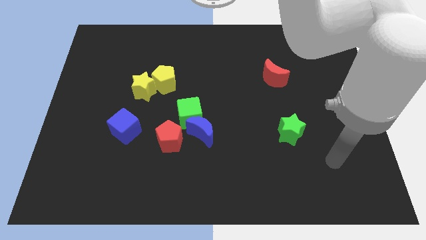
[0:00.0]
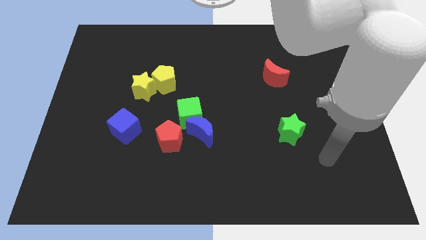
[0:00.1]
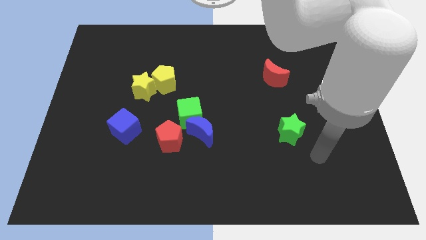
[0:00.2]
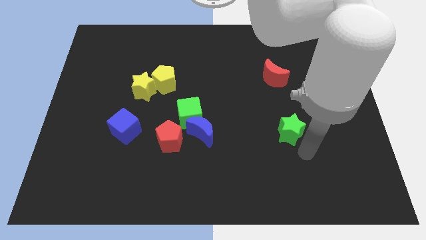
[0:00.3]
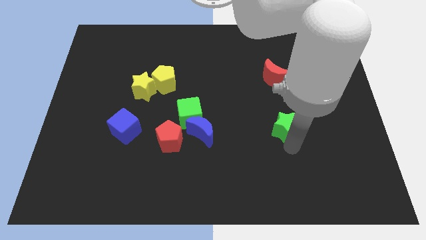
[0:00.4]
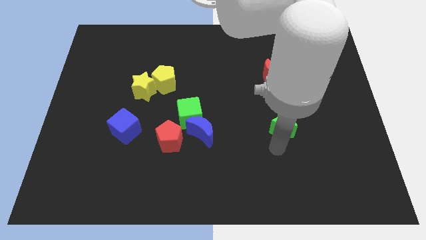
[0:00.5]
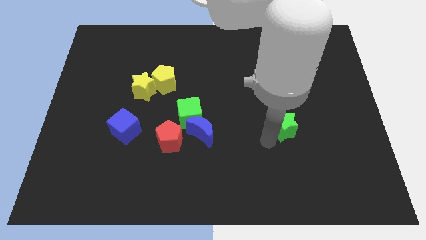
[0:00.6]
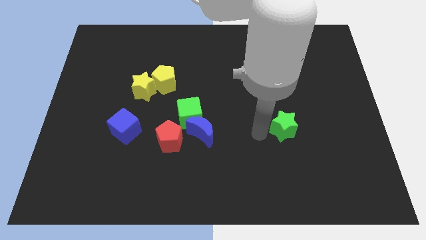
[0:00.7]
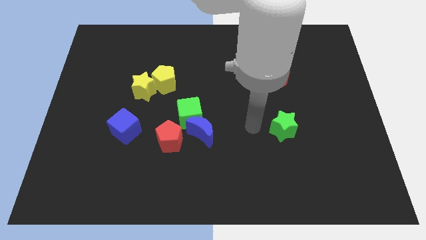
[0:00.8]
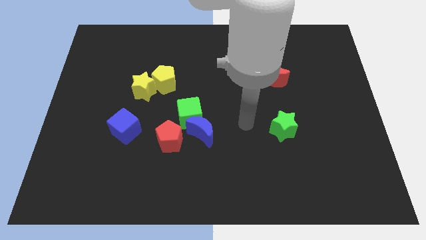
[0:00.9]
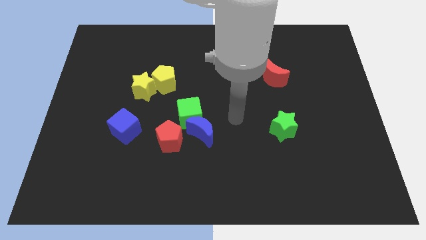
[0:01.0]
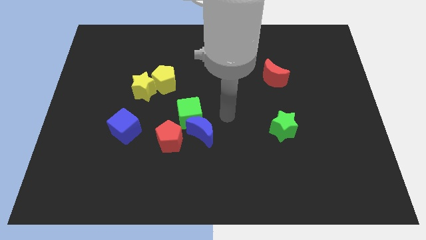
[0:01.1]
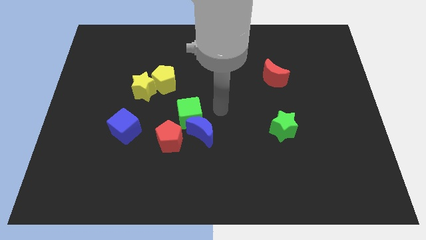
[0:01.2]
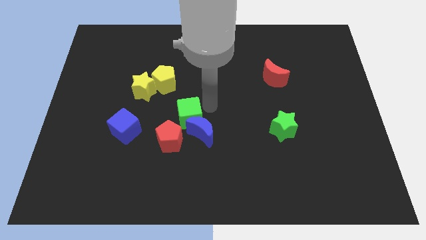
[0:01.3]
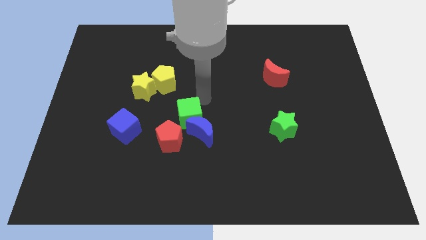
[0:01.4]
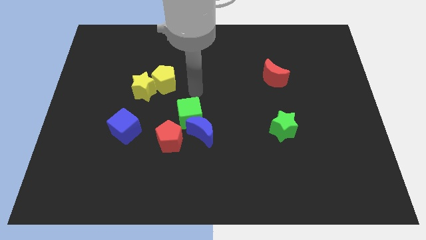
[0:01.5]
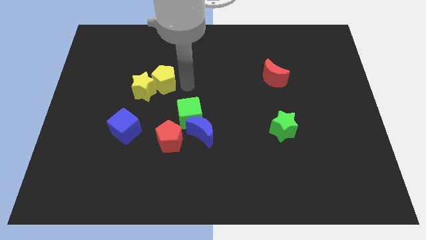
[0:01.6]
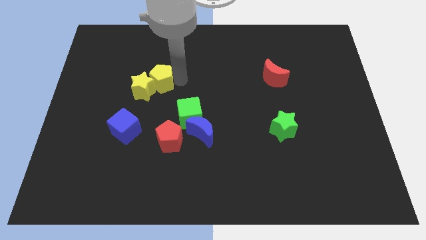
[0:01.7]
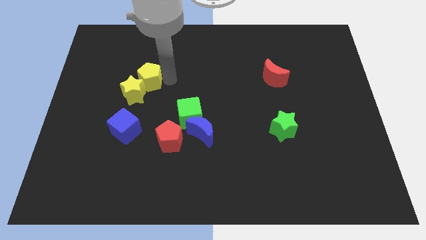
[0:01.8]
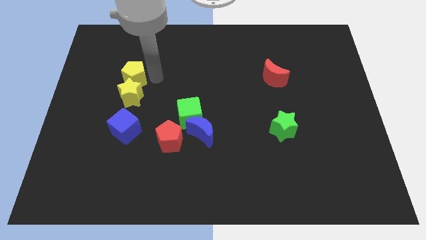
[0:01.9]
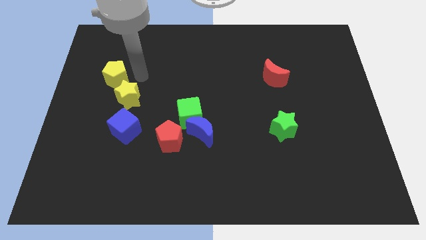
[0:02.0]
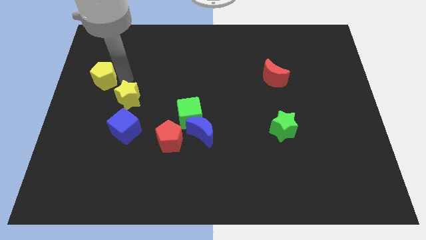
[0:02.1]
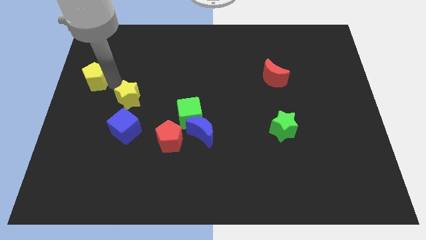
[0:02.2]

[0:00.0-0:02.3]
separate the yellow star from the yellow pentagon

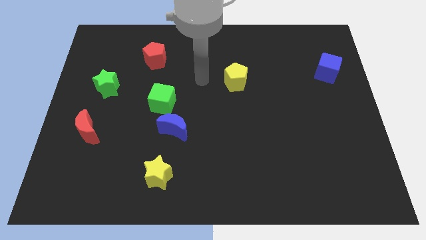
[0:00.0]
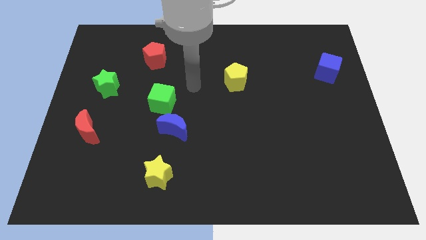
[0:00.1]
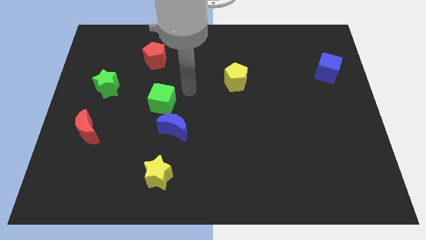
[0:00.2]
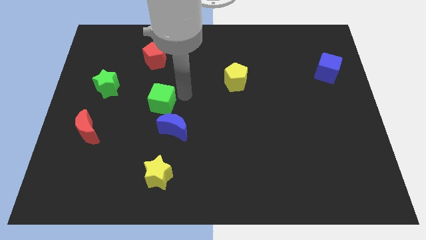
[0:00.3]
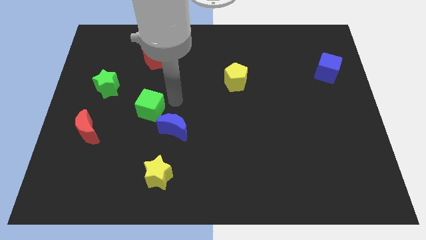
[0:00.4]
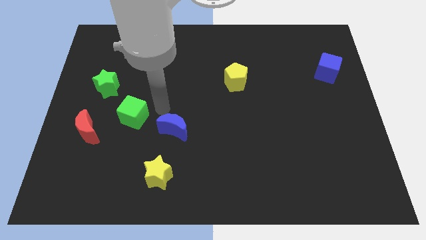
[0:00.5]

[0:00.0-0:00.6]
pull the blue moon apart from the green cube

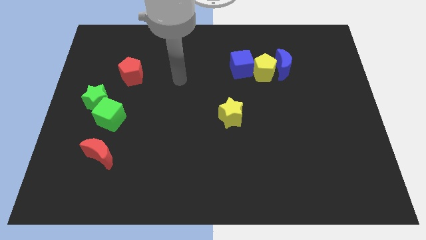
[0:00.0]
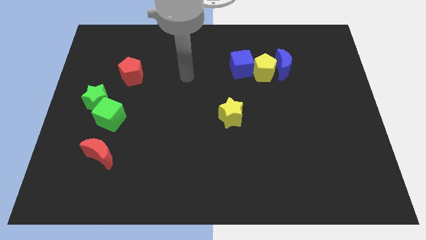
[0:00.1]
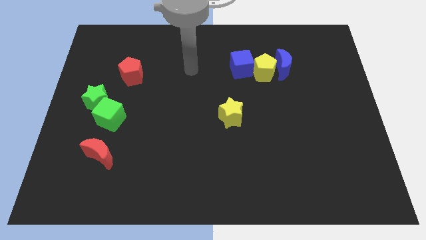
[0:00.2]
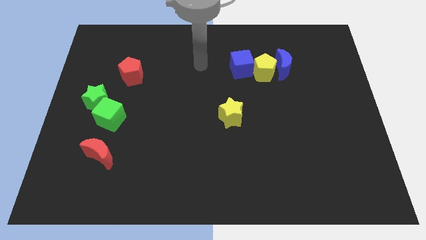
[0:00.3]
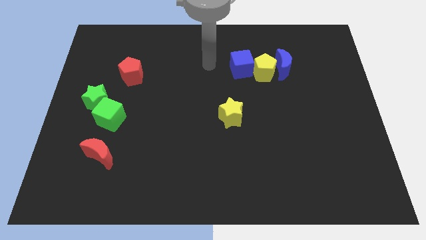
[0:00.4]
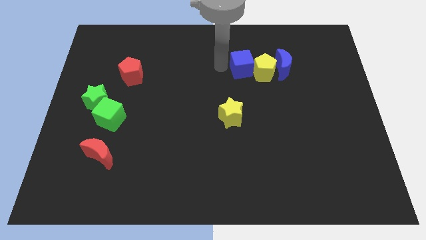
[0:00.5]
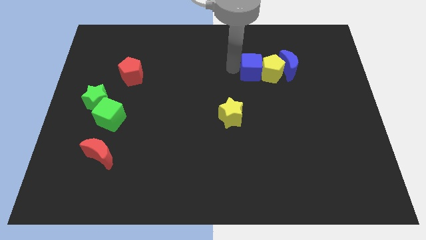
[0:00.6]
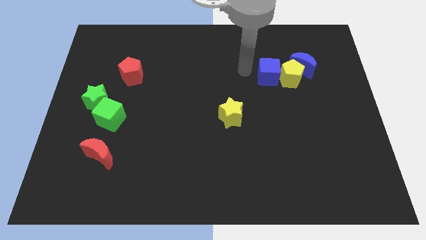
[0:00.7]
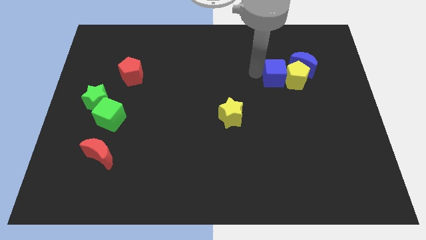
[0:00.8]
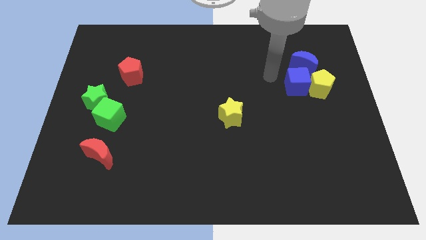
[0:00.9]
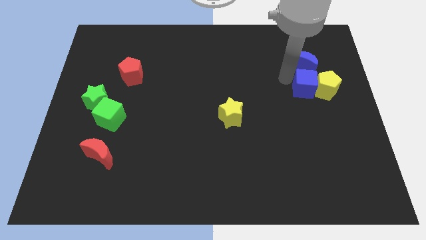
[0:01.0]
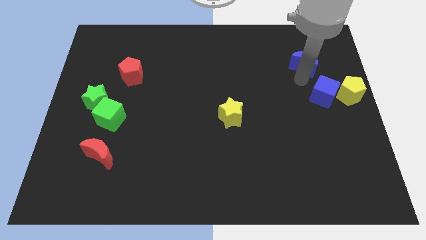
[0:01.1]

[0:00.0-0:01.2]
move the blue moon away from the yellow pentagon

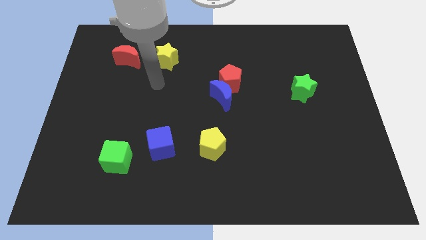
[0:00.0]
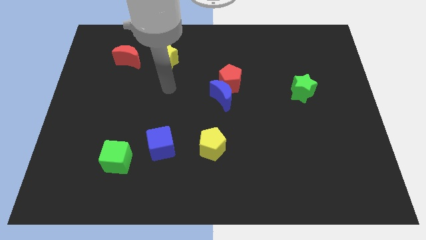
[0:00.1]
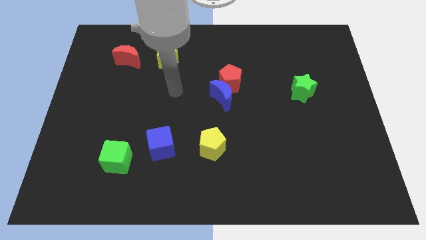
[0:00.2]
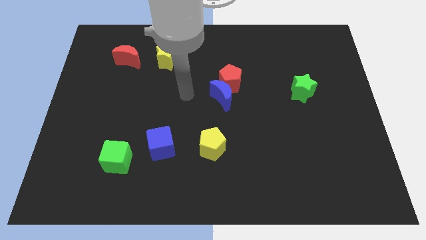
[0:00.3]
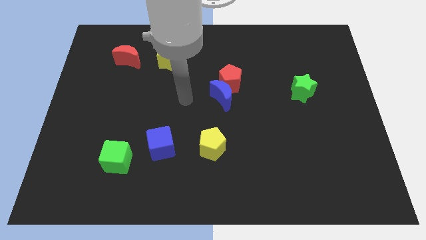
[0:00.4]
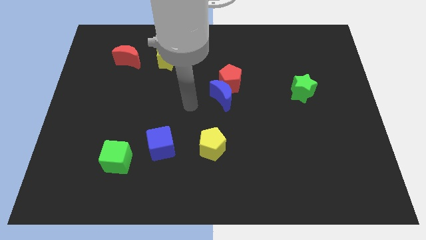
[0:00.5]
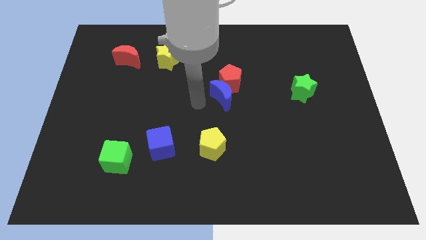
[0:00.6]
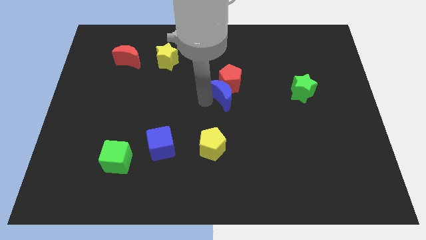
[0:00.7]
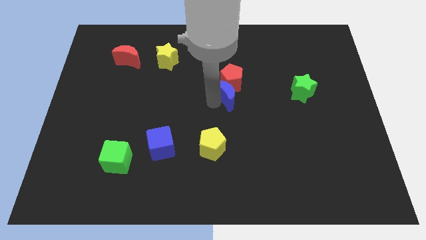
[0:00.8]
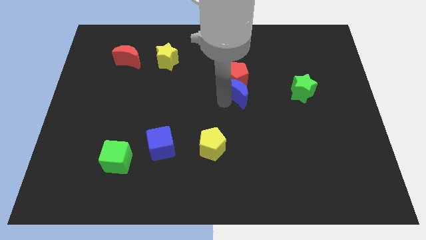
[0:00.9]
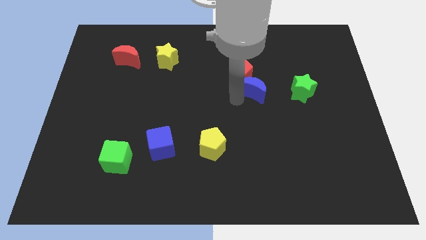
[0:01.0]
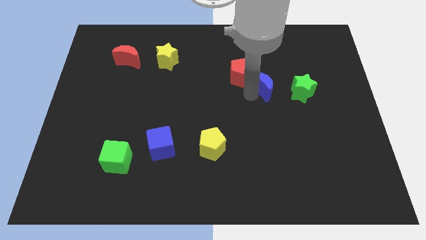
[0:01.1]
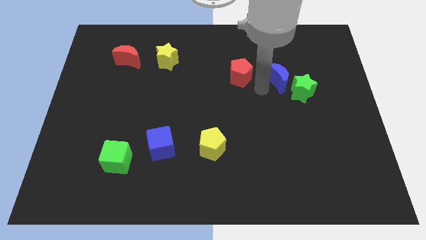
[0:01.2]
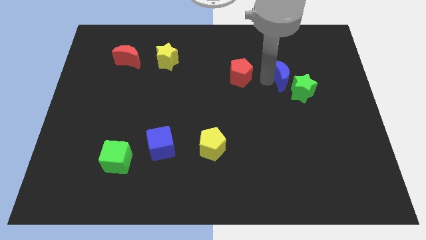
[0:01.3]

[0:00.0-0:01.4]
move the red pentagon away from the blue moon

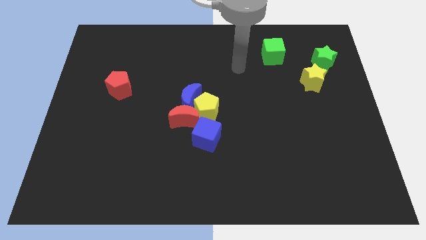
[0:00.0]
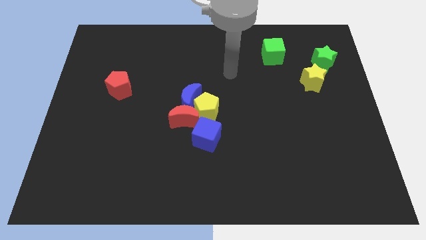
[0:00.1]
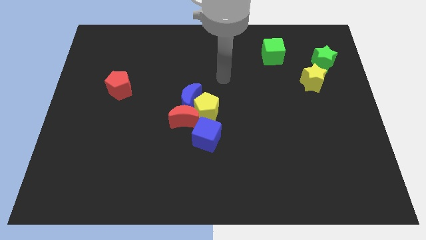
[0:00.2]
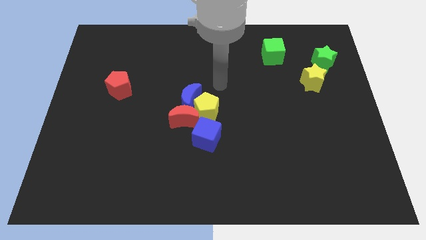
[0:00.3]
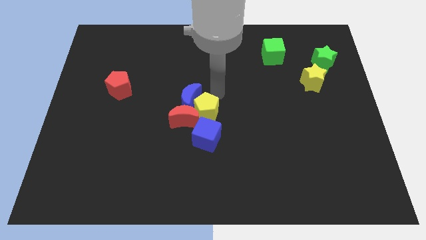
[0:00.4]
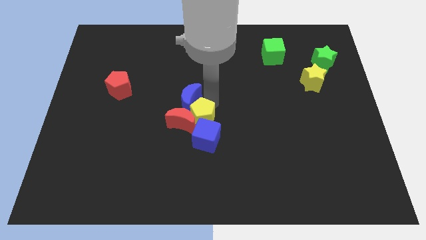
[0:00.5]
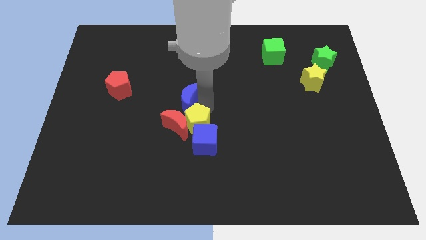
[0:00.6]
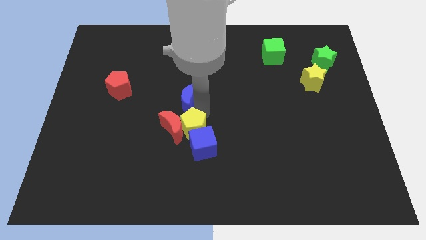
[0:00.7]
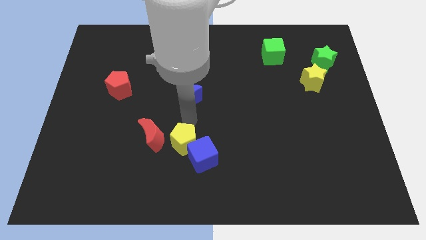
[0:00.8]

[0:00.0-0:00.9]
pull the blue moon apart from the yellow pentagon and red moon

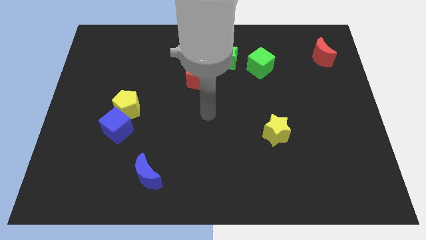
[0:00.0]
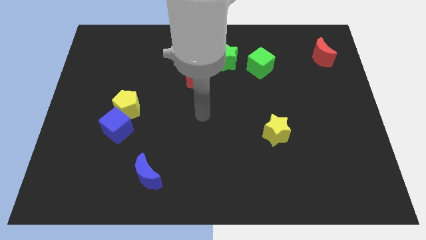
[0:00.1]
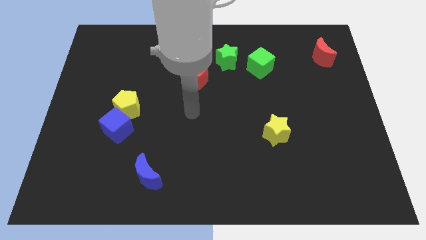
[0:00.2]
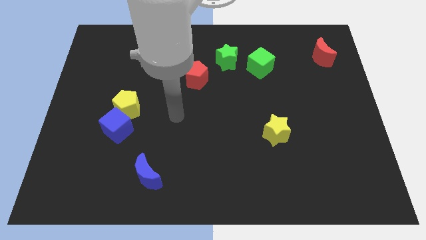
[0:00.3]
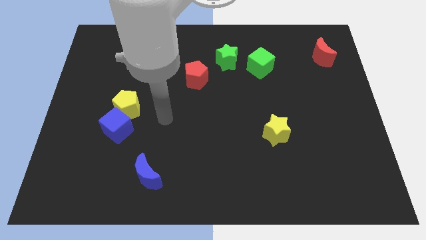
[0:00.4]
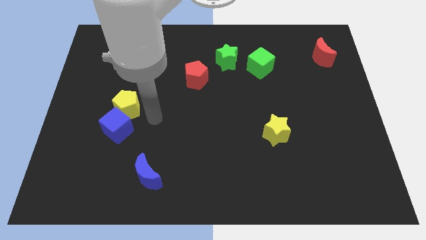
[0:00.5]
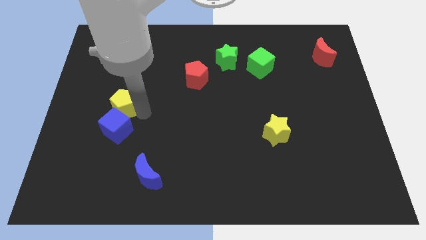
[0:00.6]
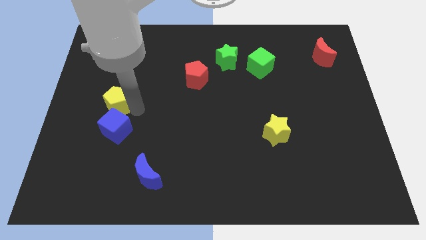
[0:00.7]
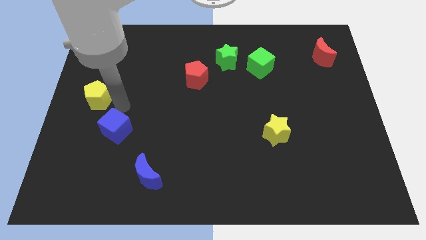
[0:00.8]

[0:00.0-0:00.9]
move the blue cube away from the yellow pentagon

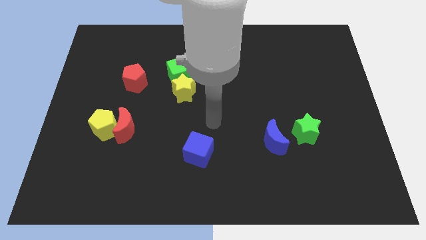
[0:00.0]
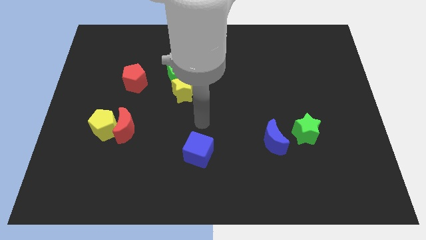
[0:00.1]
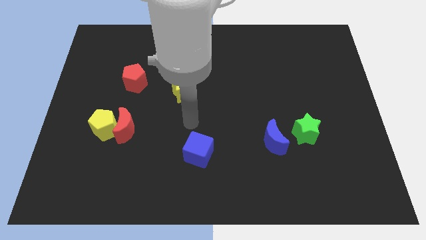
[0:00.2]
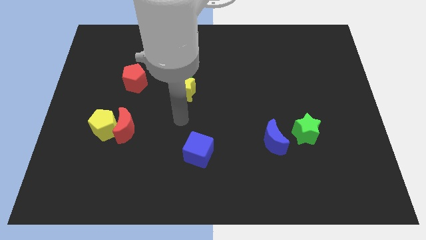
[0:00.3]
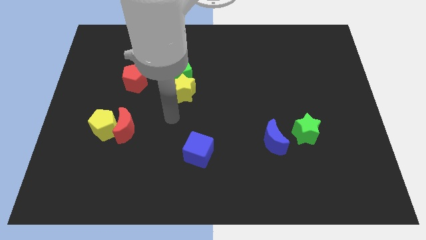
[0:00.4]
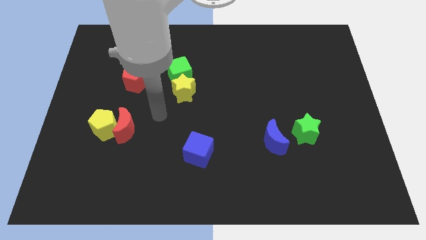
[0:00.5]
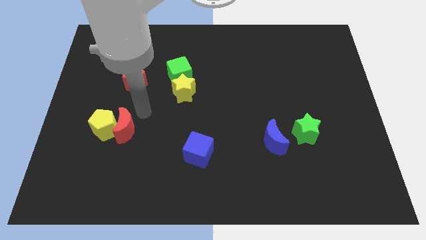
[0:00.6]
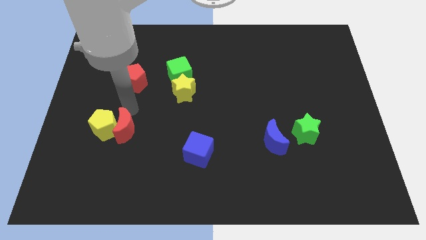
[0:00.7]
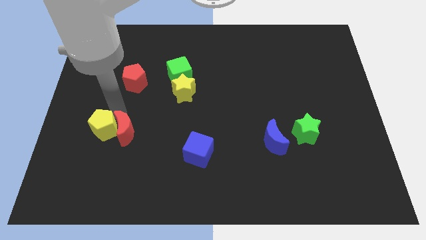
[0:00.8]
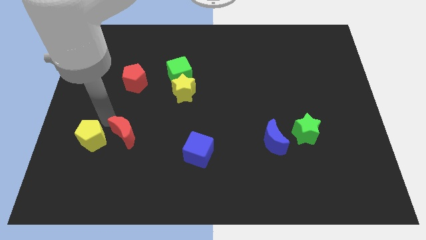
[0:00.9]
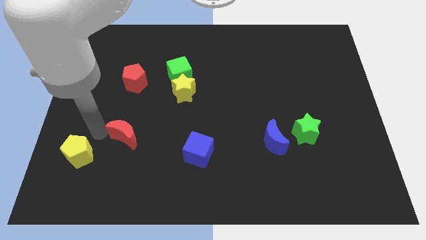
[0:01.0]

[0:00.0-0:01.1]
move the red moon away from the yellow pentagon

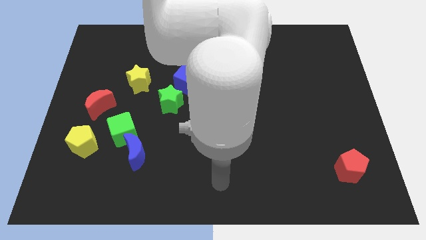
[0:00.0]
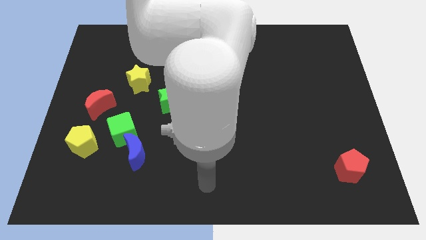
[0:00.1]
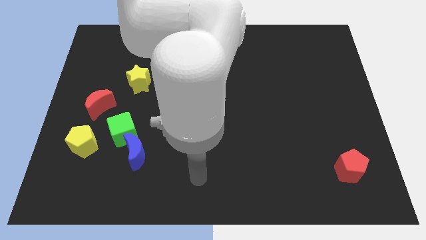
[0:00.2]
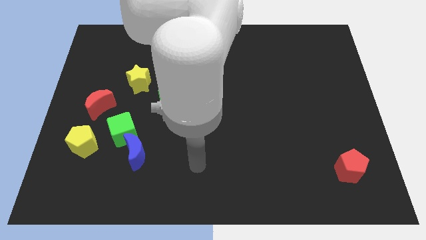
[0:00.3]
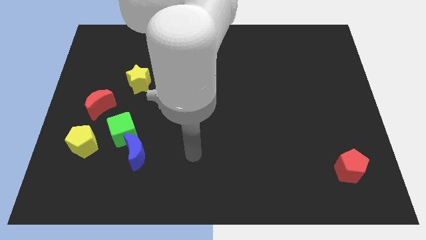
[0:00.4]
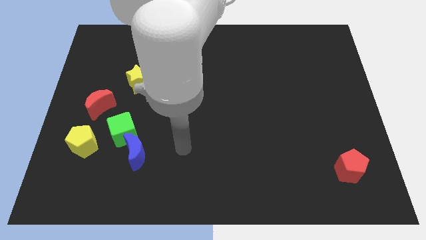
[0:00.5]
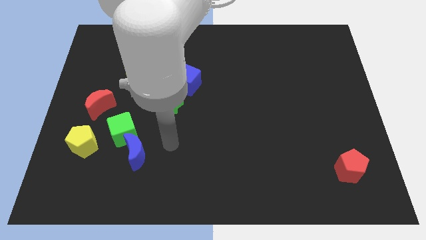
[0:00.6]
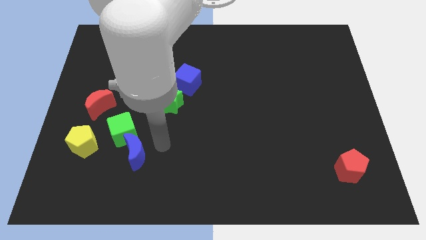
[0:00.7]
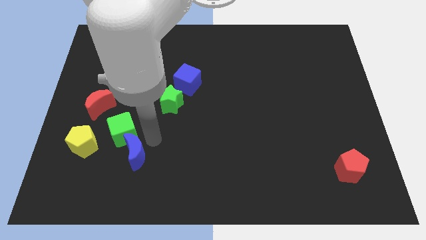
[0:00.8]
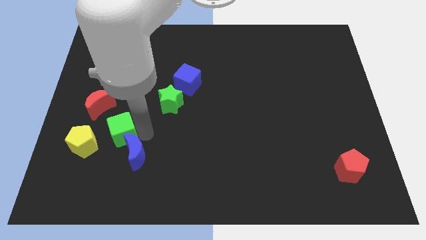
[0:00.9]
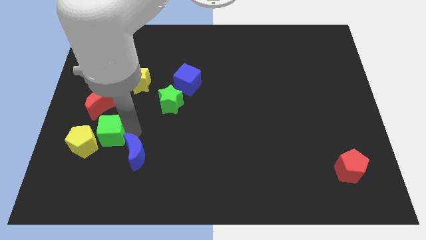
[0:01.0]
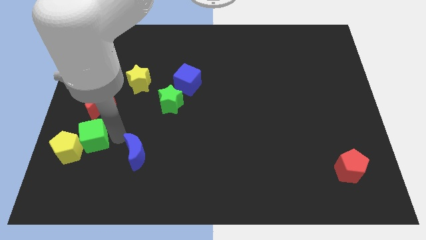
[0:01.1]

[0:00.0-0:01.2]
move the blue moon away from the green cube
